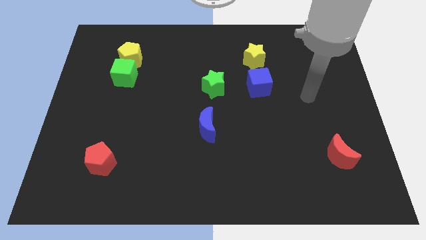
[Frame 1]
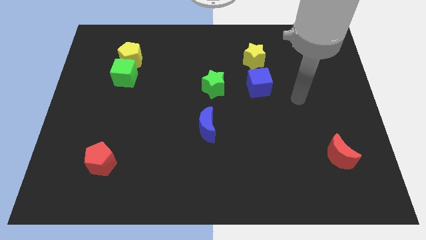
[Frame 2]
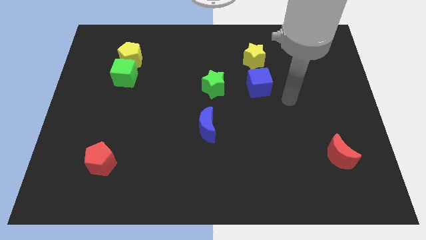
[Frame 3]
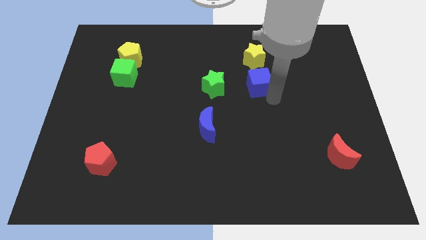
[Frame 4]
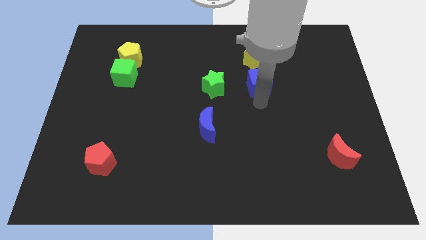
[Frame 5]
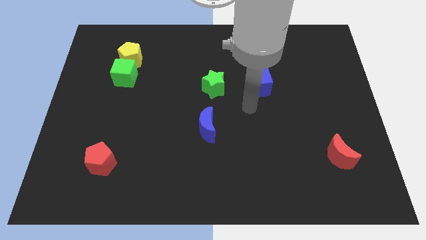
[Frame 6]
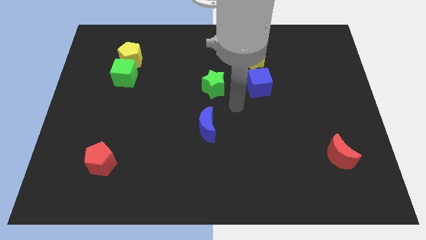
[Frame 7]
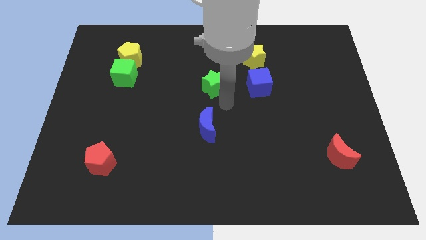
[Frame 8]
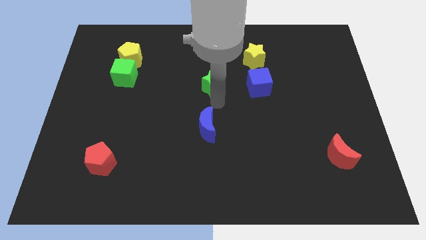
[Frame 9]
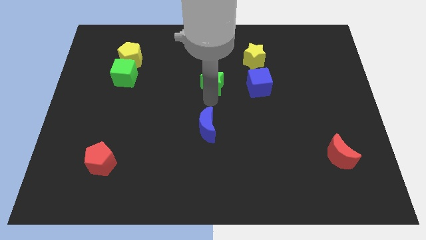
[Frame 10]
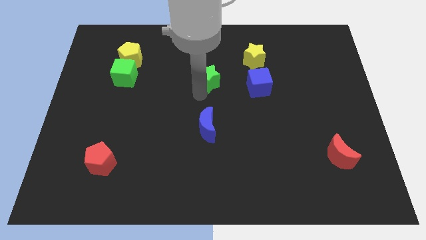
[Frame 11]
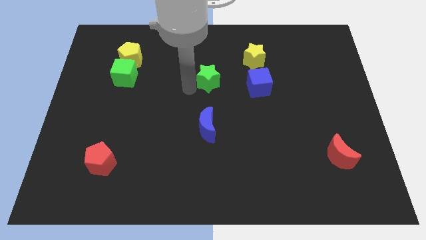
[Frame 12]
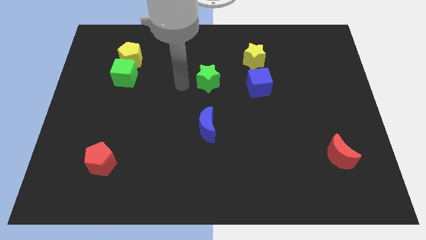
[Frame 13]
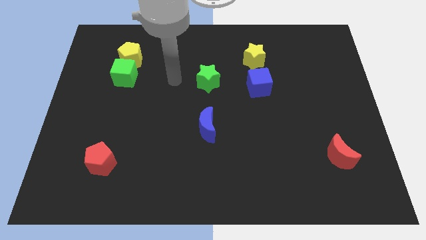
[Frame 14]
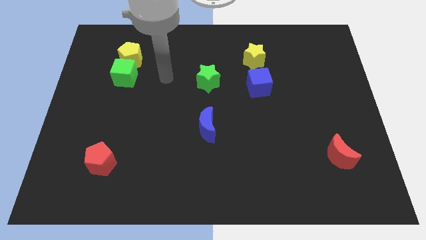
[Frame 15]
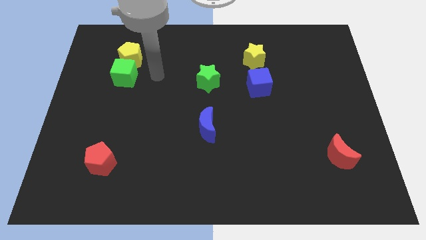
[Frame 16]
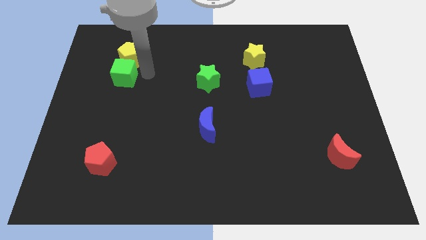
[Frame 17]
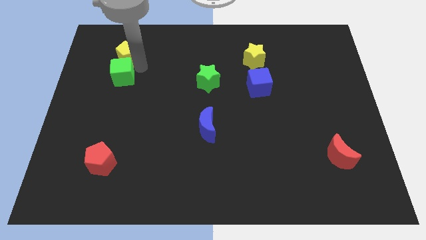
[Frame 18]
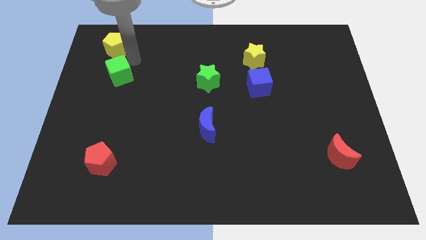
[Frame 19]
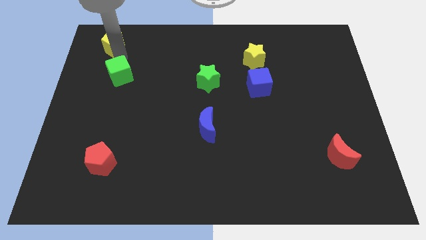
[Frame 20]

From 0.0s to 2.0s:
move the green cube away from the yellow pentagon

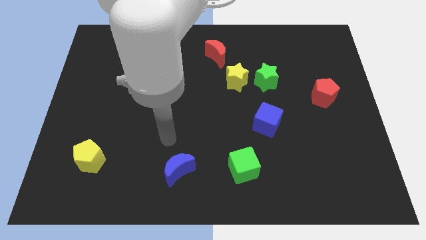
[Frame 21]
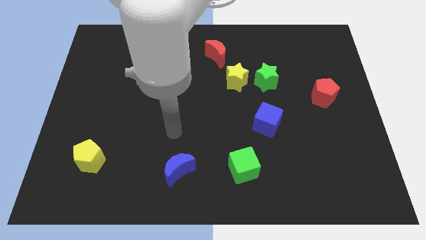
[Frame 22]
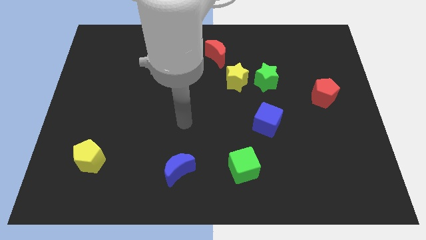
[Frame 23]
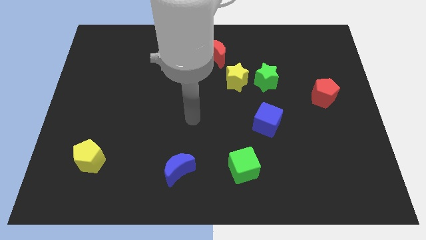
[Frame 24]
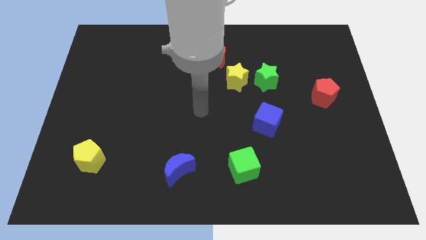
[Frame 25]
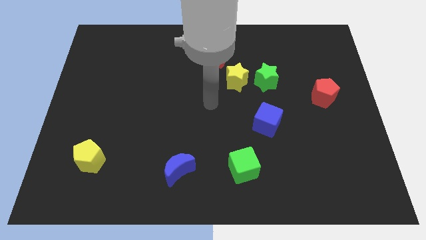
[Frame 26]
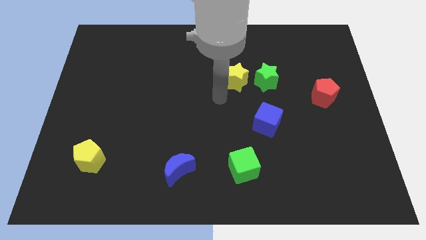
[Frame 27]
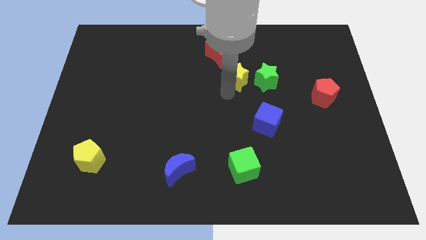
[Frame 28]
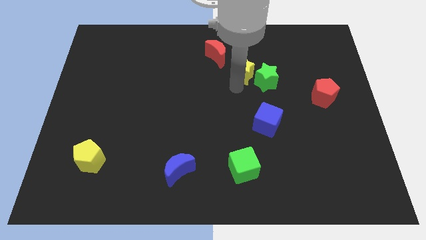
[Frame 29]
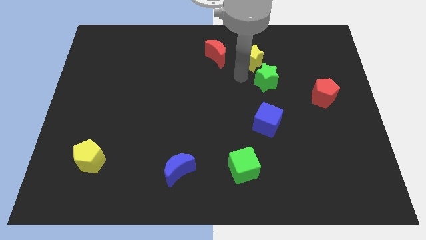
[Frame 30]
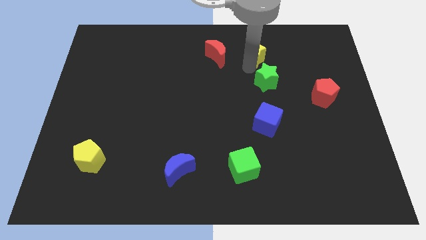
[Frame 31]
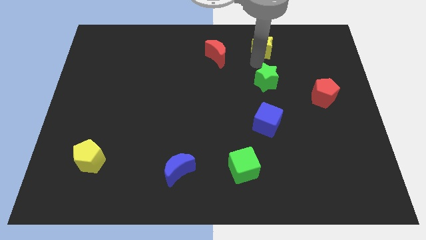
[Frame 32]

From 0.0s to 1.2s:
separate the green star from the yellow star

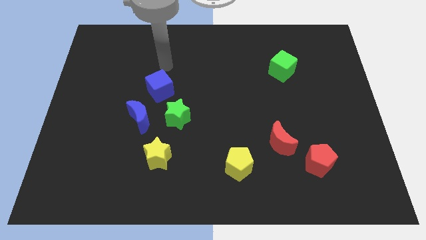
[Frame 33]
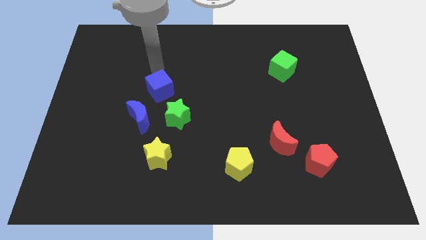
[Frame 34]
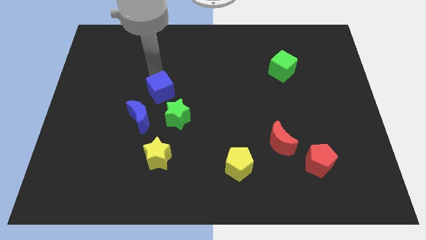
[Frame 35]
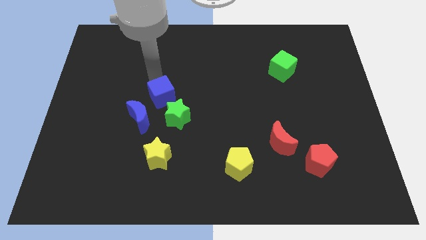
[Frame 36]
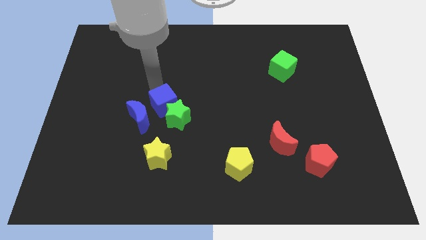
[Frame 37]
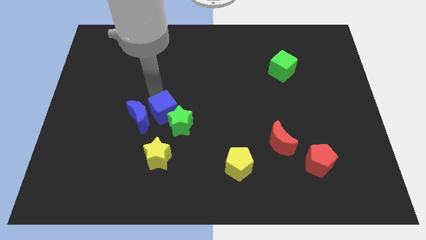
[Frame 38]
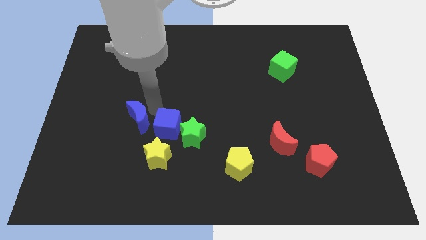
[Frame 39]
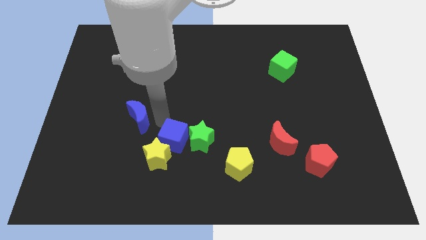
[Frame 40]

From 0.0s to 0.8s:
move the green star away from the blue moon and blue cube

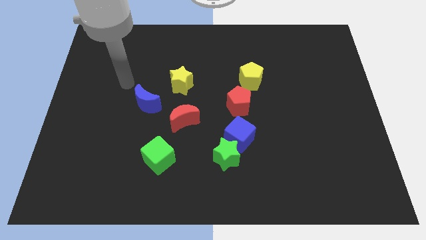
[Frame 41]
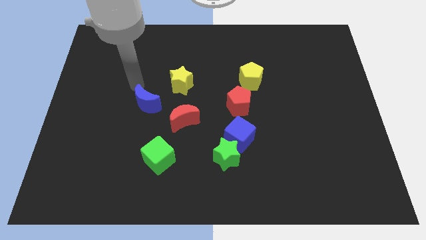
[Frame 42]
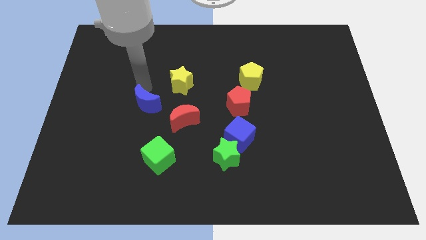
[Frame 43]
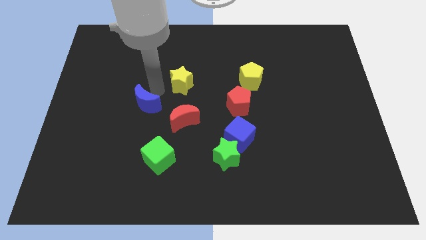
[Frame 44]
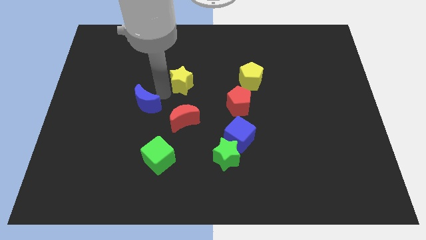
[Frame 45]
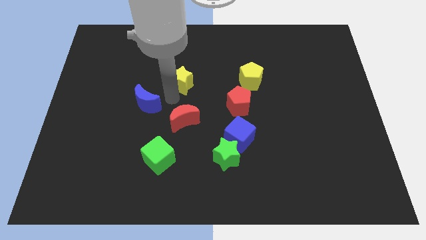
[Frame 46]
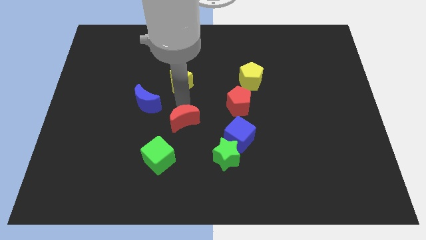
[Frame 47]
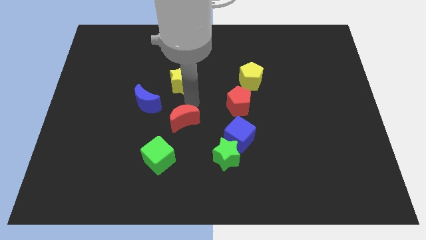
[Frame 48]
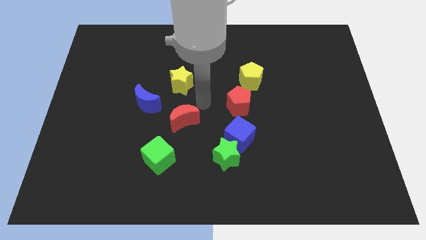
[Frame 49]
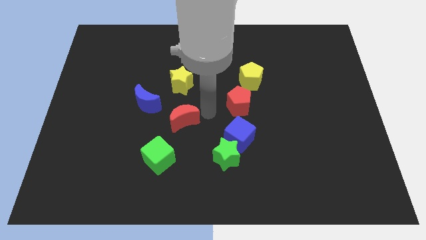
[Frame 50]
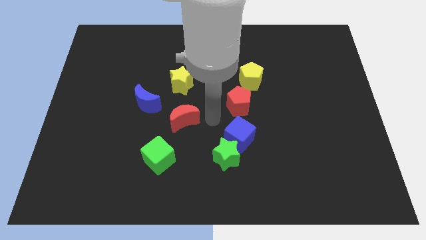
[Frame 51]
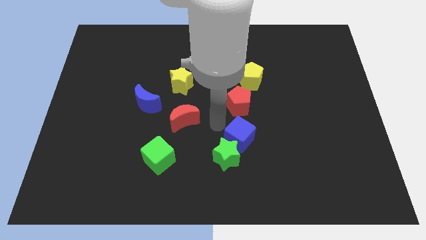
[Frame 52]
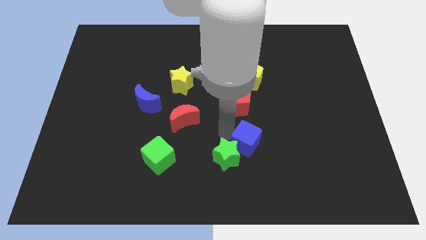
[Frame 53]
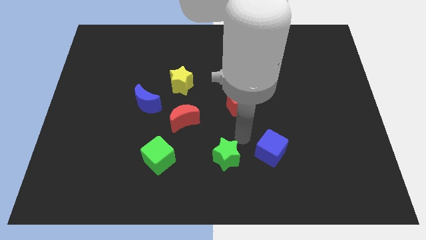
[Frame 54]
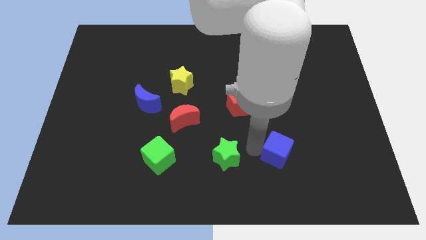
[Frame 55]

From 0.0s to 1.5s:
separate the green star from the blue cube

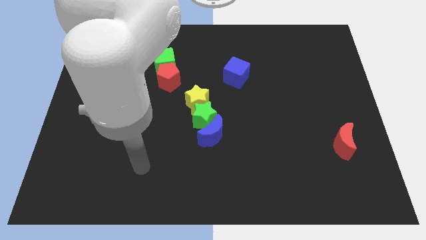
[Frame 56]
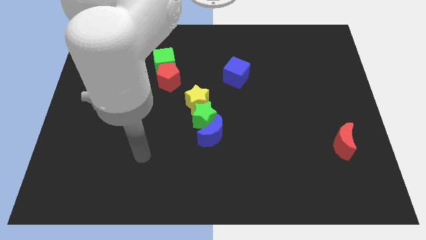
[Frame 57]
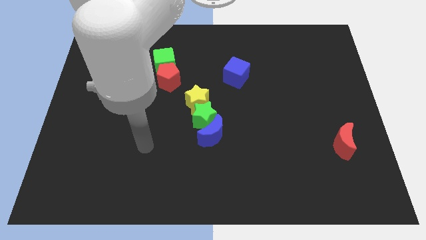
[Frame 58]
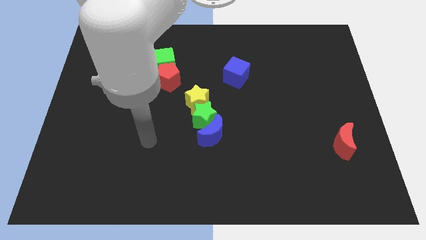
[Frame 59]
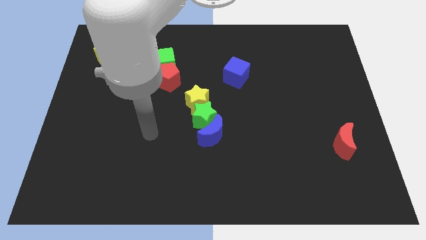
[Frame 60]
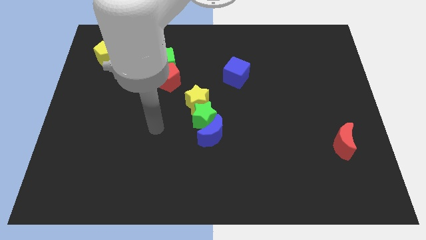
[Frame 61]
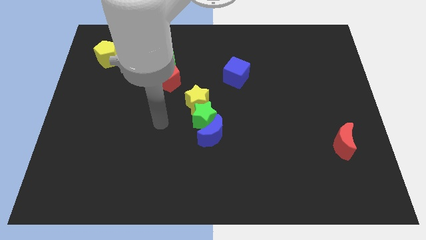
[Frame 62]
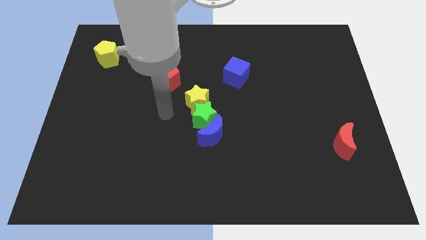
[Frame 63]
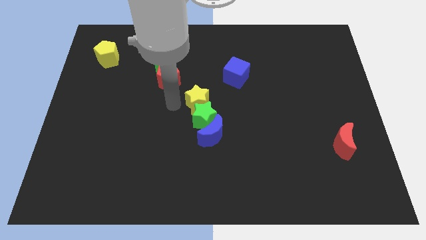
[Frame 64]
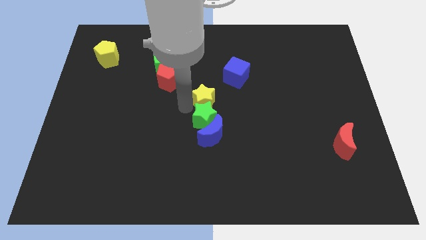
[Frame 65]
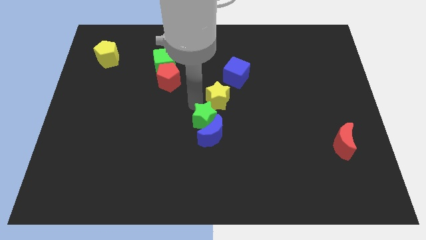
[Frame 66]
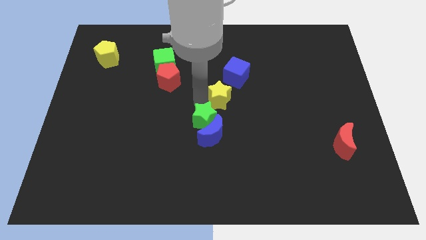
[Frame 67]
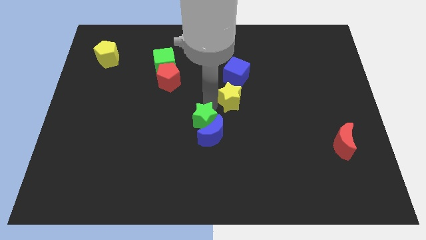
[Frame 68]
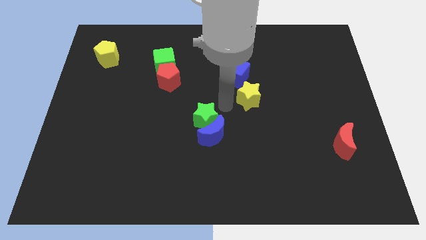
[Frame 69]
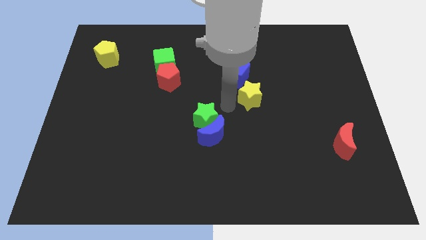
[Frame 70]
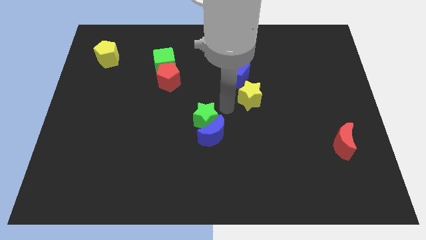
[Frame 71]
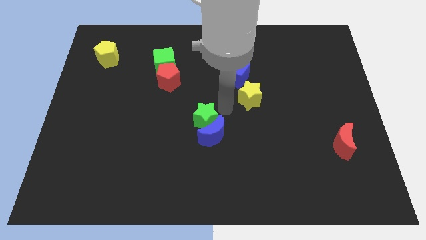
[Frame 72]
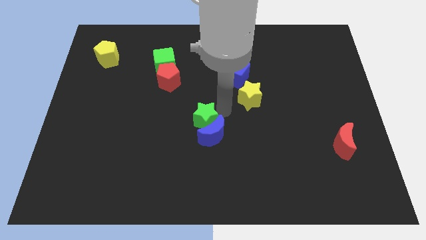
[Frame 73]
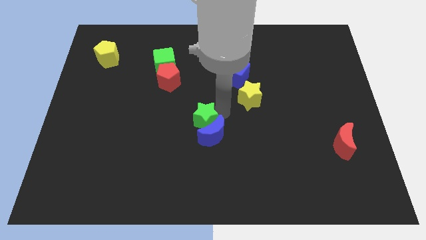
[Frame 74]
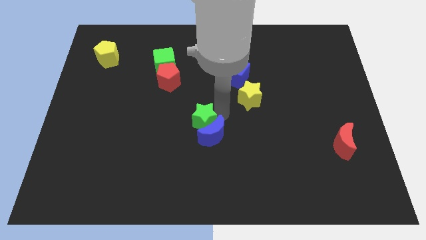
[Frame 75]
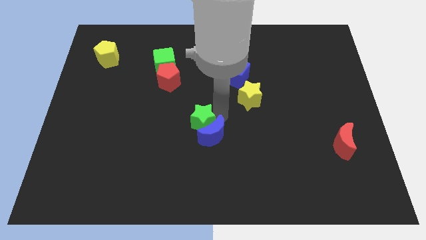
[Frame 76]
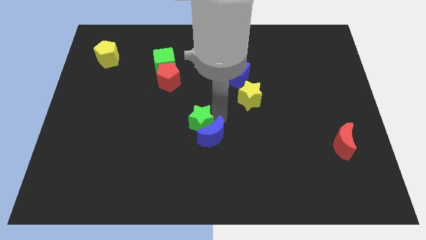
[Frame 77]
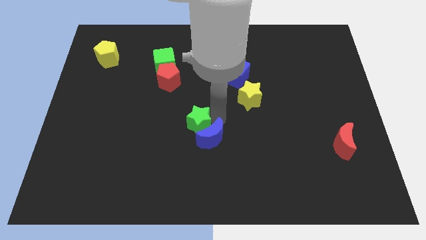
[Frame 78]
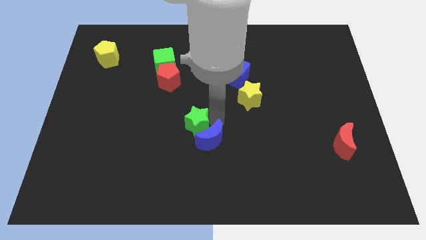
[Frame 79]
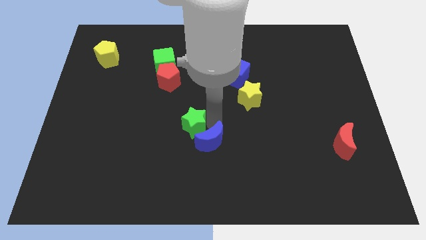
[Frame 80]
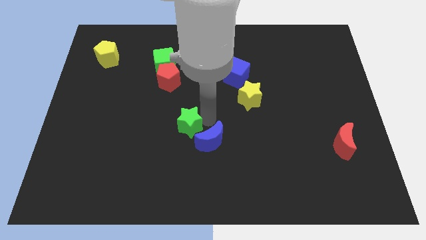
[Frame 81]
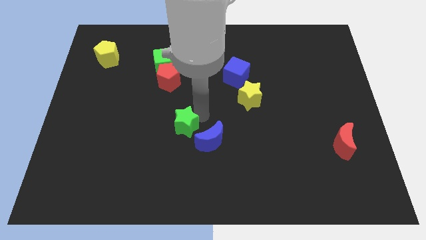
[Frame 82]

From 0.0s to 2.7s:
move the green star away from the blue moon and yellow star

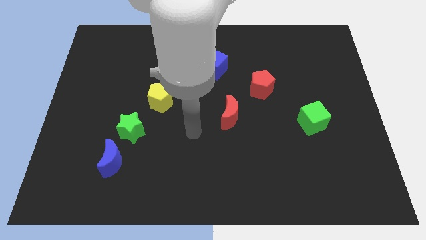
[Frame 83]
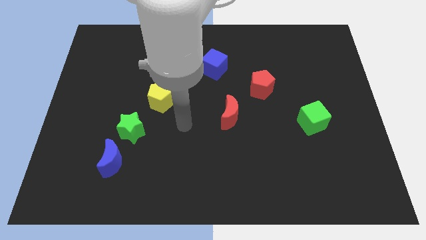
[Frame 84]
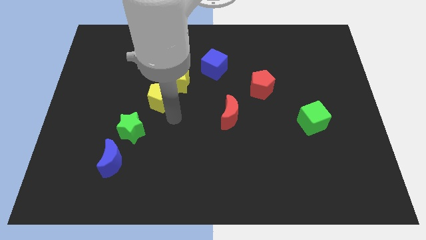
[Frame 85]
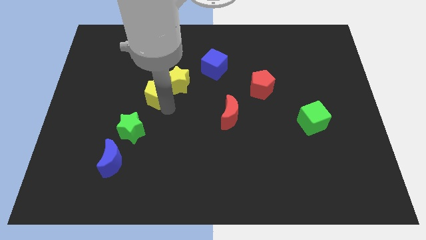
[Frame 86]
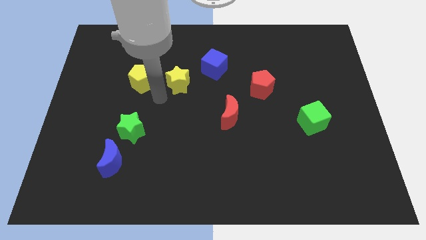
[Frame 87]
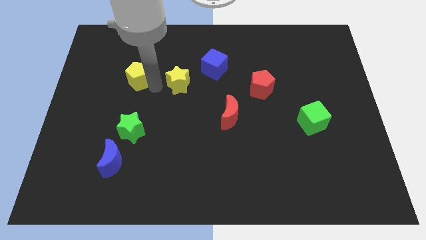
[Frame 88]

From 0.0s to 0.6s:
move the yellow star away from the yellow pentagon

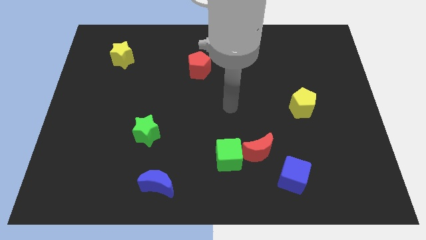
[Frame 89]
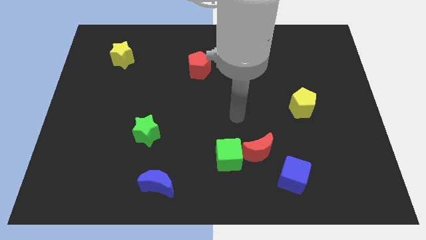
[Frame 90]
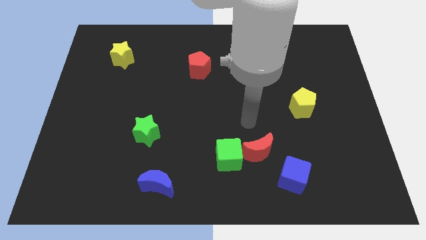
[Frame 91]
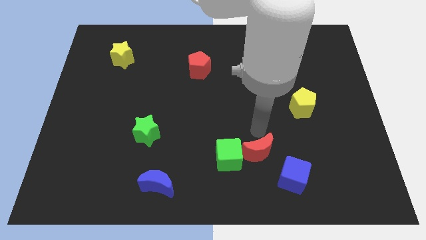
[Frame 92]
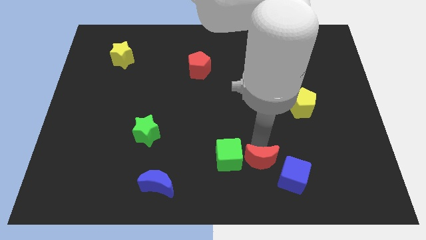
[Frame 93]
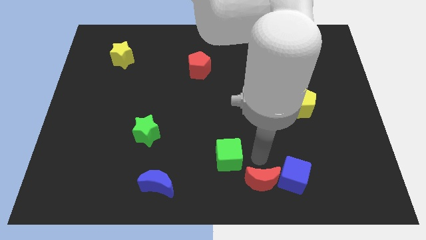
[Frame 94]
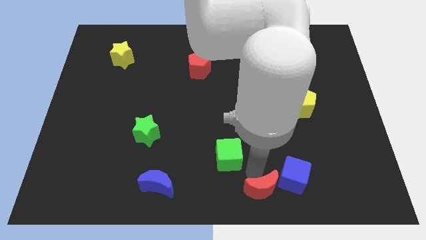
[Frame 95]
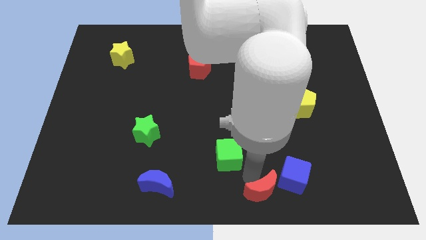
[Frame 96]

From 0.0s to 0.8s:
pull the green cube apart from the red moon
